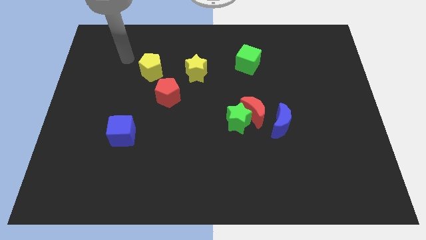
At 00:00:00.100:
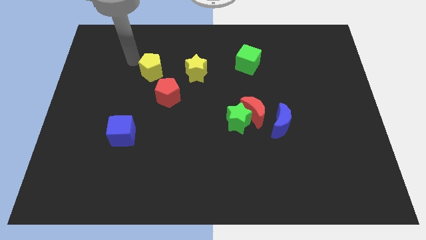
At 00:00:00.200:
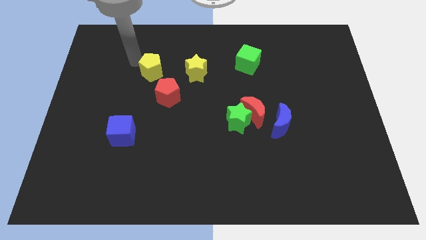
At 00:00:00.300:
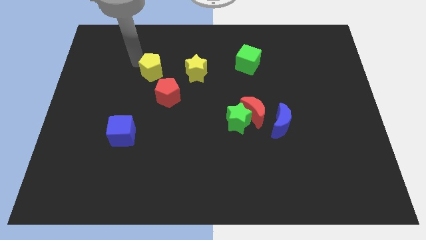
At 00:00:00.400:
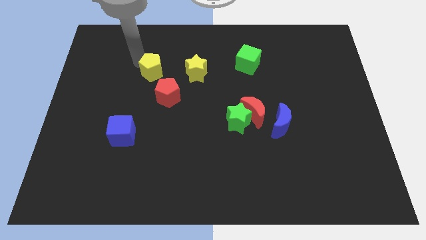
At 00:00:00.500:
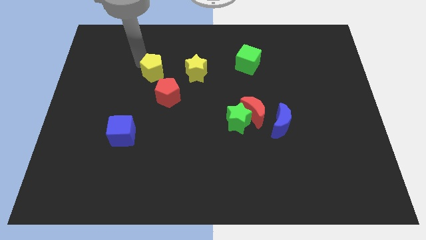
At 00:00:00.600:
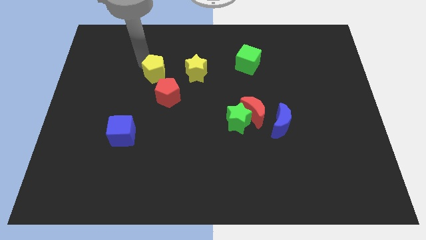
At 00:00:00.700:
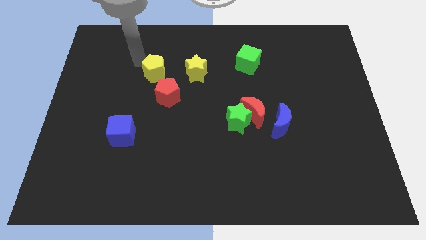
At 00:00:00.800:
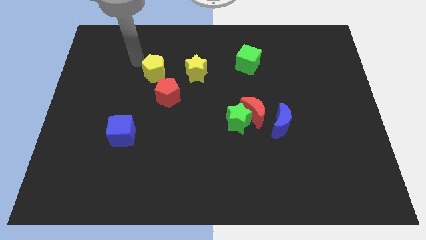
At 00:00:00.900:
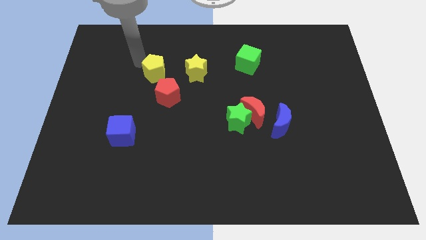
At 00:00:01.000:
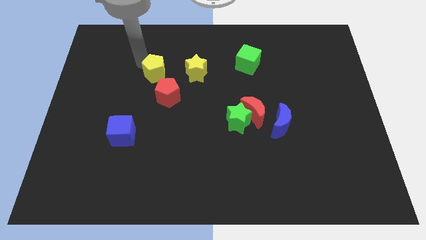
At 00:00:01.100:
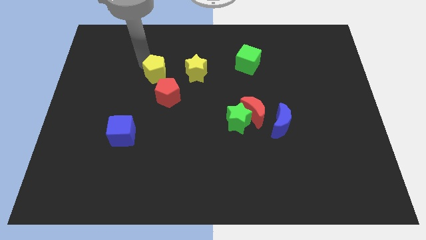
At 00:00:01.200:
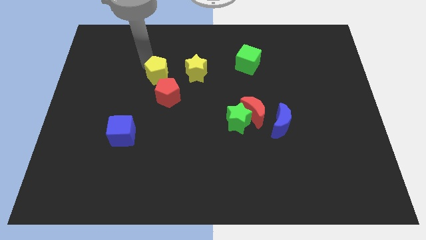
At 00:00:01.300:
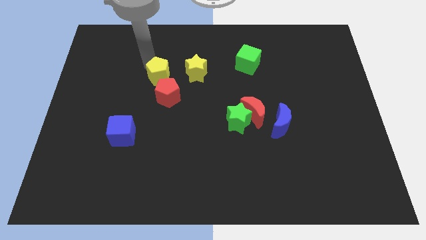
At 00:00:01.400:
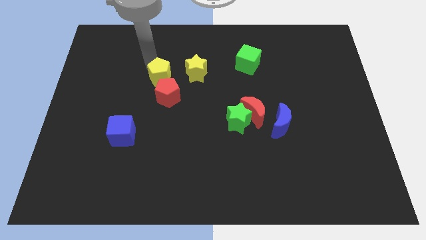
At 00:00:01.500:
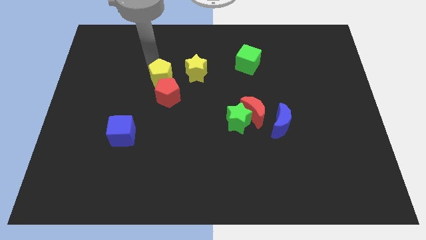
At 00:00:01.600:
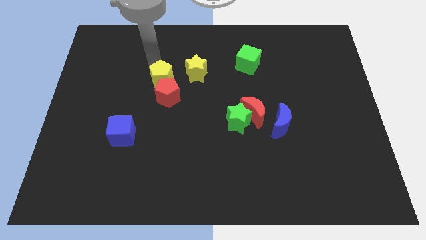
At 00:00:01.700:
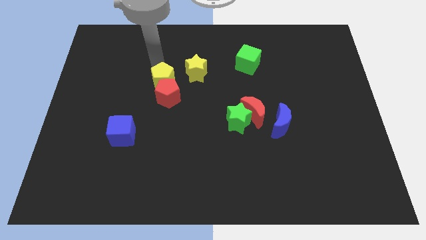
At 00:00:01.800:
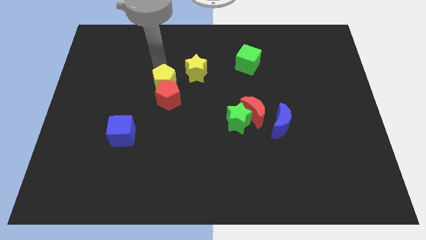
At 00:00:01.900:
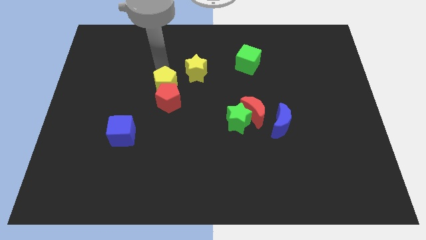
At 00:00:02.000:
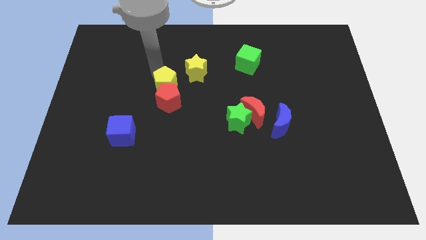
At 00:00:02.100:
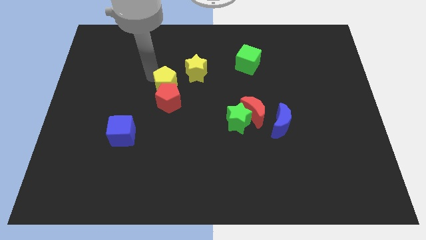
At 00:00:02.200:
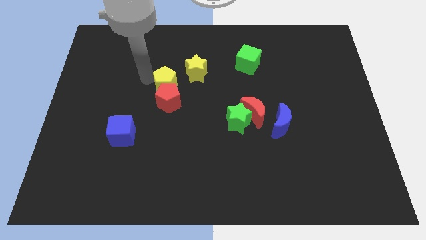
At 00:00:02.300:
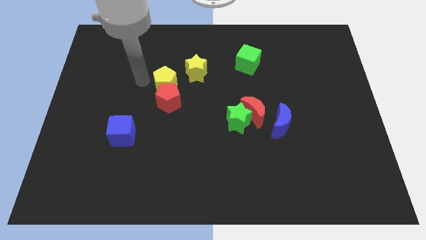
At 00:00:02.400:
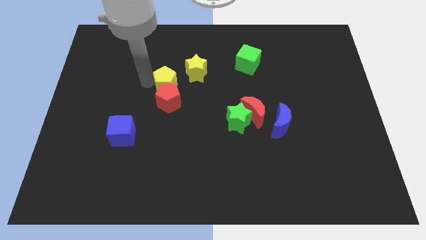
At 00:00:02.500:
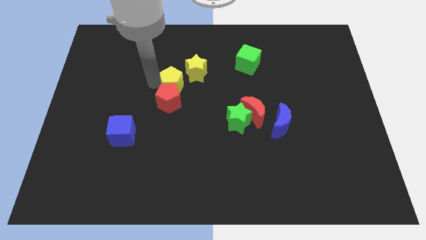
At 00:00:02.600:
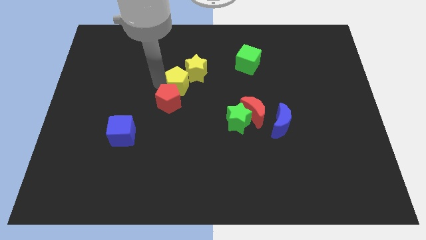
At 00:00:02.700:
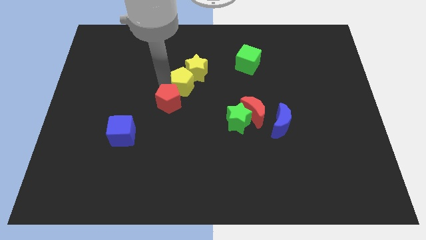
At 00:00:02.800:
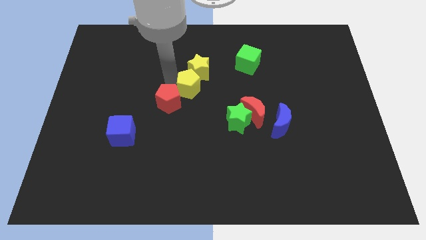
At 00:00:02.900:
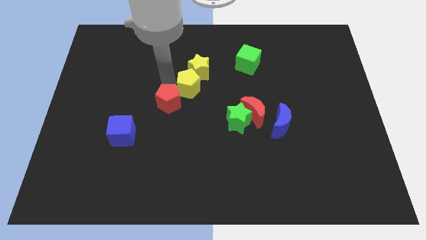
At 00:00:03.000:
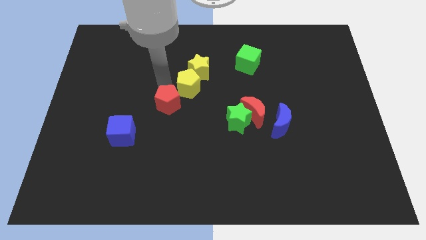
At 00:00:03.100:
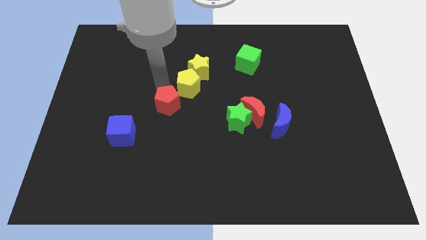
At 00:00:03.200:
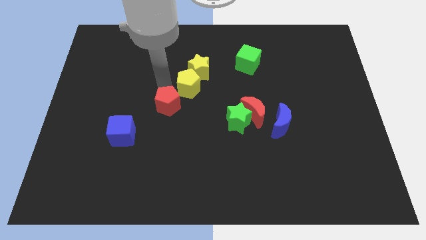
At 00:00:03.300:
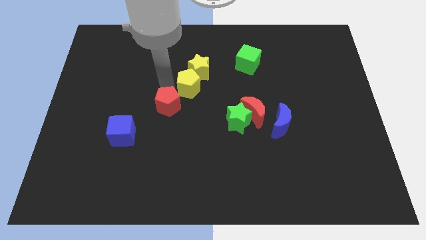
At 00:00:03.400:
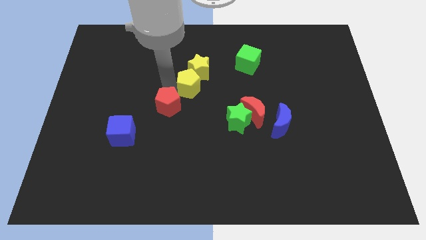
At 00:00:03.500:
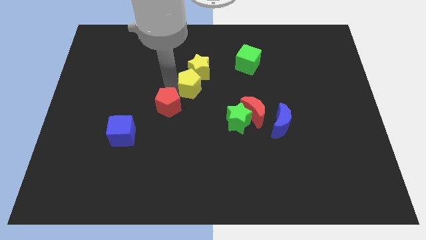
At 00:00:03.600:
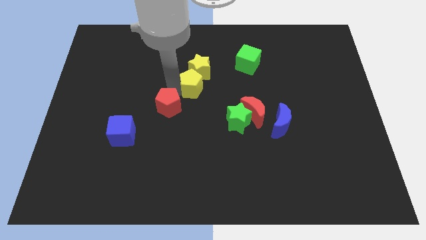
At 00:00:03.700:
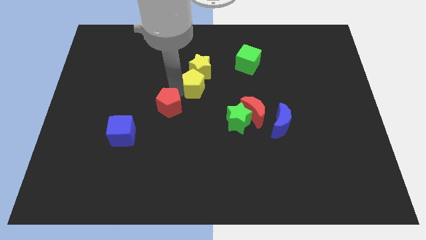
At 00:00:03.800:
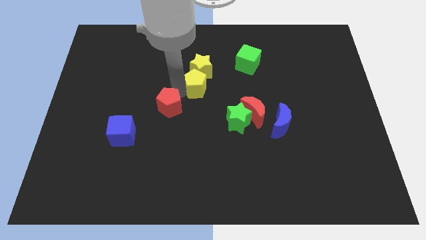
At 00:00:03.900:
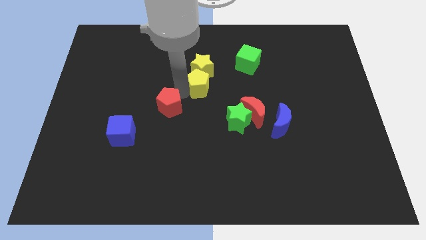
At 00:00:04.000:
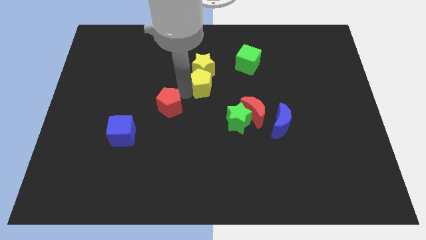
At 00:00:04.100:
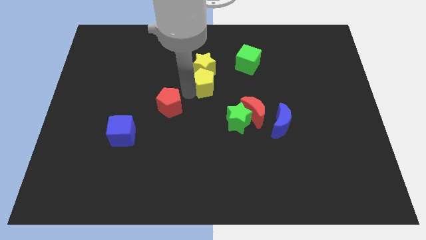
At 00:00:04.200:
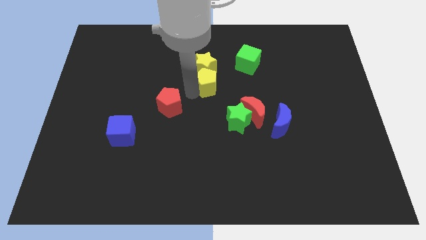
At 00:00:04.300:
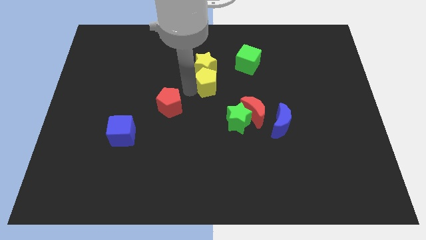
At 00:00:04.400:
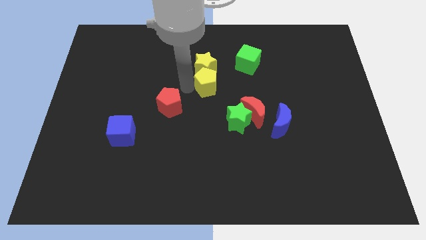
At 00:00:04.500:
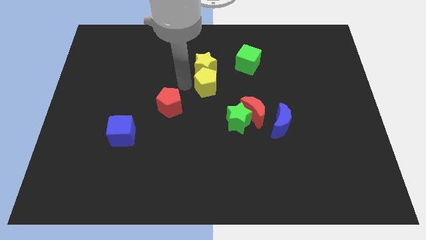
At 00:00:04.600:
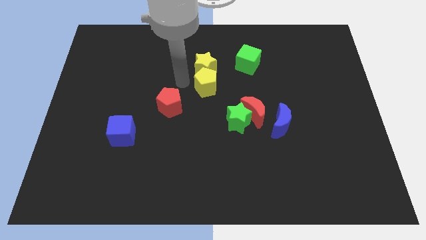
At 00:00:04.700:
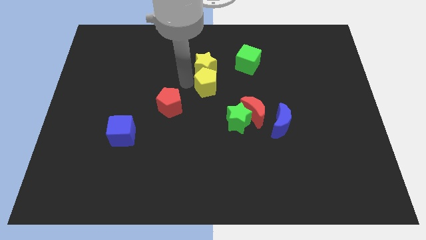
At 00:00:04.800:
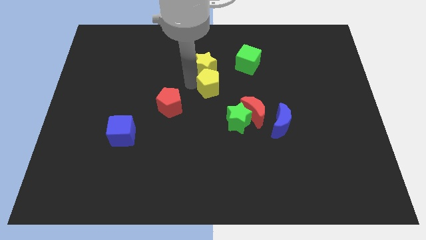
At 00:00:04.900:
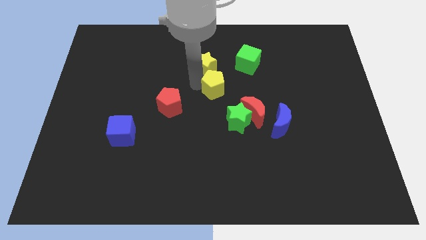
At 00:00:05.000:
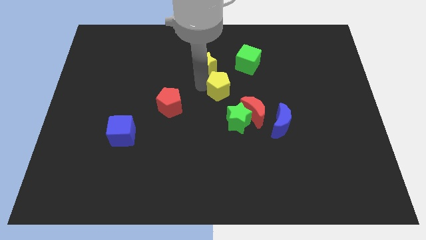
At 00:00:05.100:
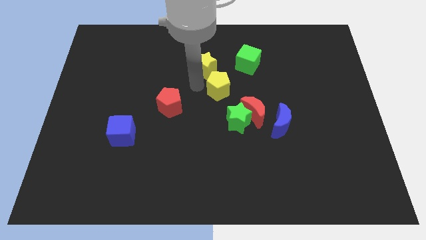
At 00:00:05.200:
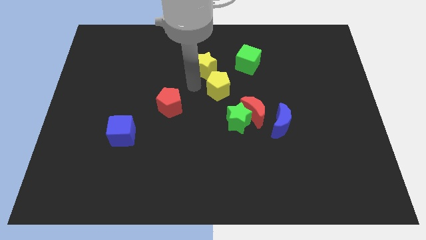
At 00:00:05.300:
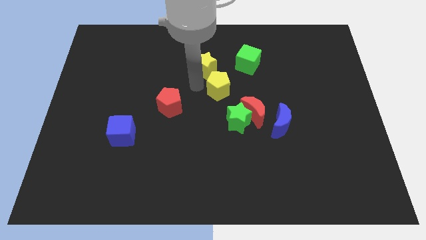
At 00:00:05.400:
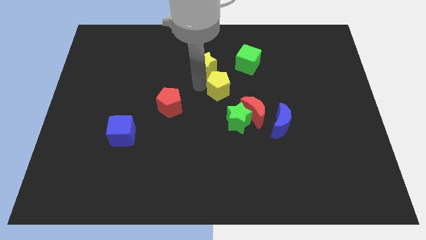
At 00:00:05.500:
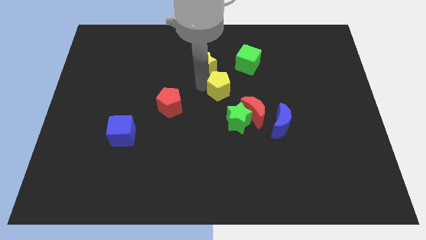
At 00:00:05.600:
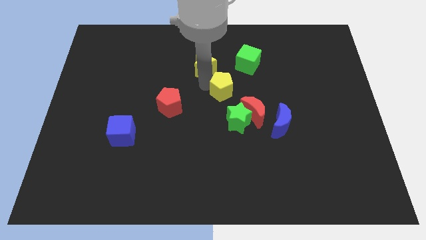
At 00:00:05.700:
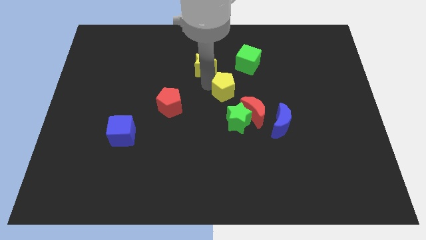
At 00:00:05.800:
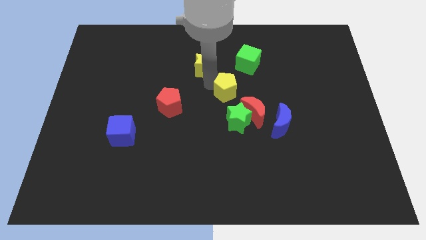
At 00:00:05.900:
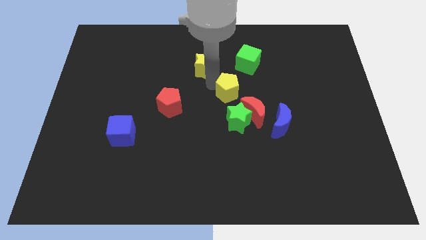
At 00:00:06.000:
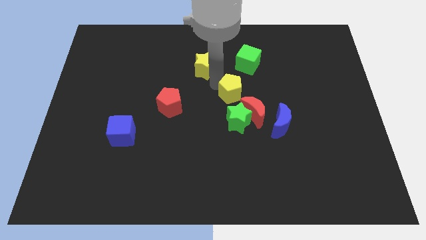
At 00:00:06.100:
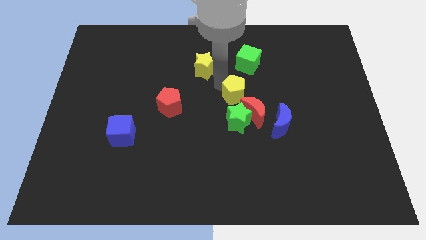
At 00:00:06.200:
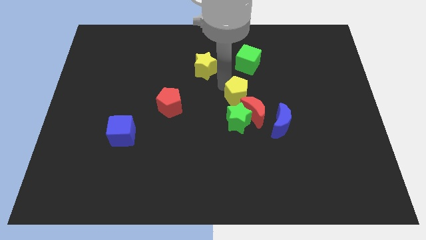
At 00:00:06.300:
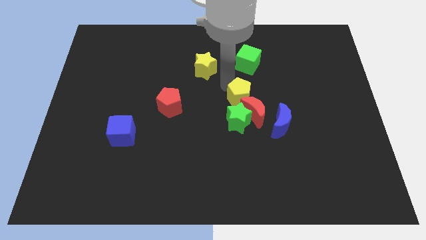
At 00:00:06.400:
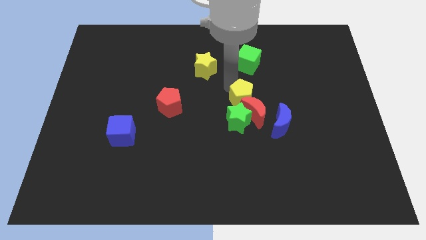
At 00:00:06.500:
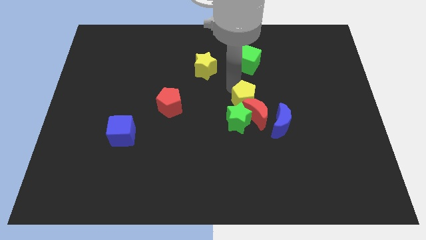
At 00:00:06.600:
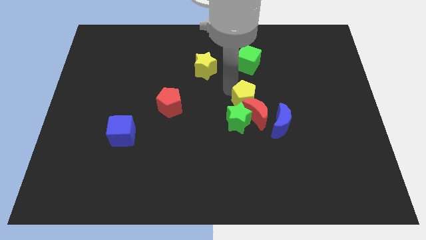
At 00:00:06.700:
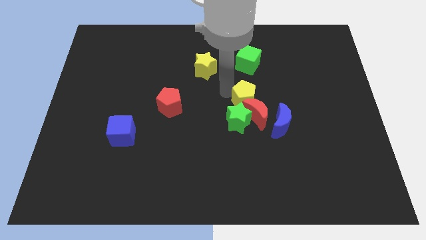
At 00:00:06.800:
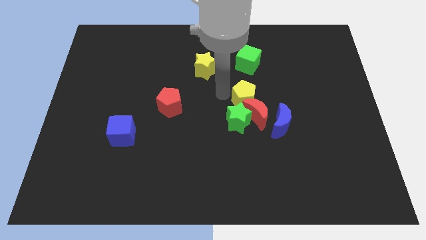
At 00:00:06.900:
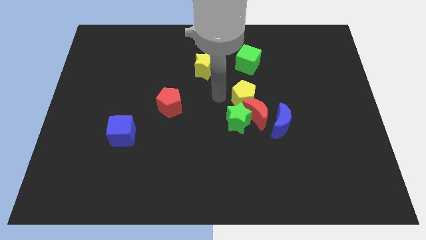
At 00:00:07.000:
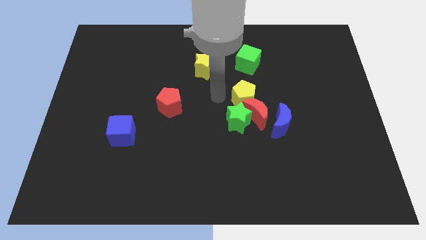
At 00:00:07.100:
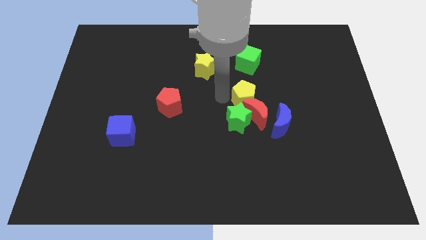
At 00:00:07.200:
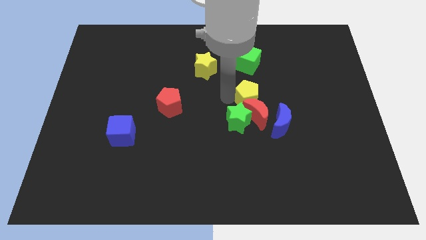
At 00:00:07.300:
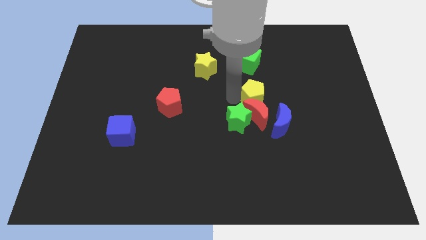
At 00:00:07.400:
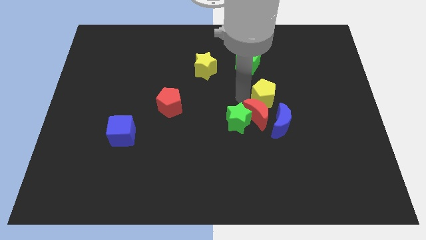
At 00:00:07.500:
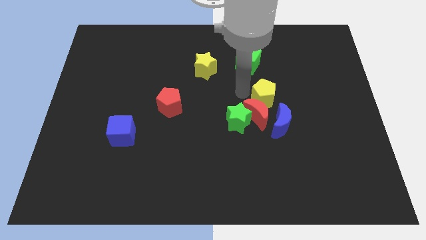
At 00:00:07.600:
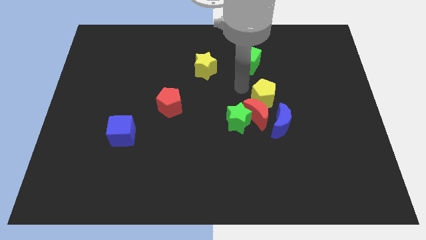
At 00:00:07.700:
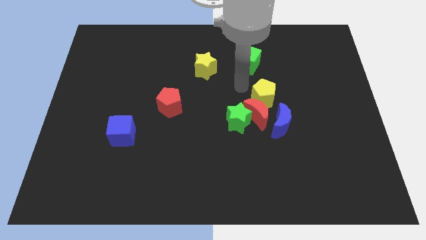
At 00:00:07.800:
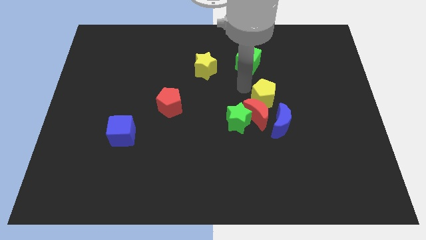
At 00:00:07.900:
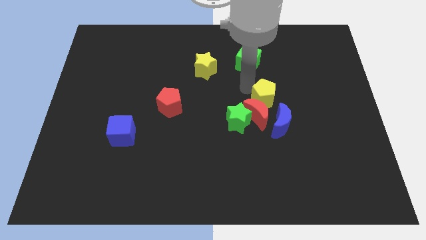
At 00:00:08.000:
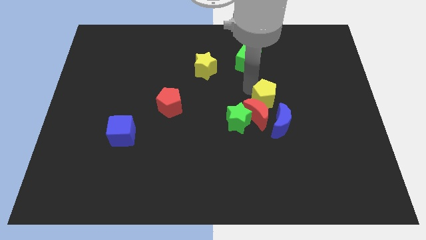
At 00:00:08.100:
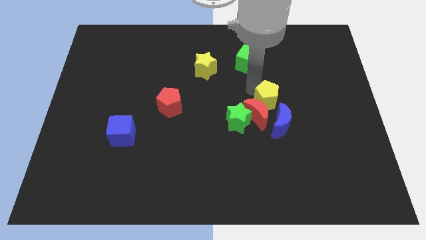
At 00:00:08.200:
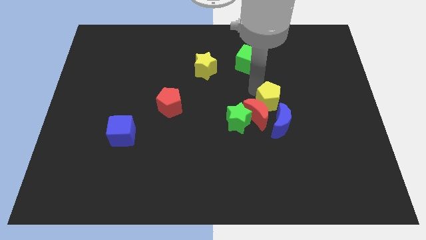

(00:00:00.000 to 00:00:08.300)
move the yellow pentagon to the right side of the red moon
